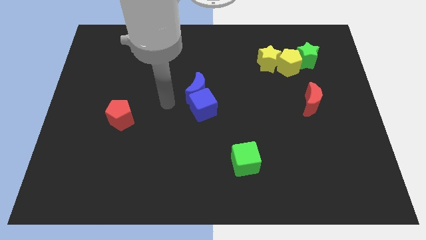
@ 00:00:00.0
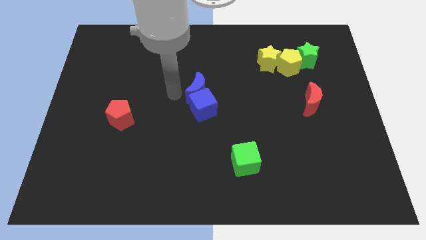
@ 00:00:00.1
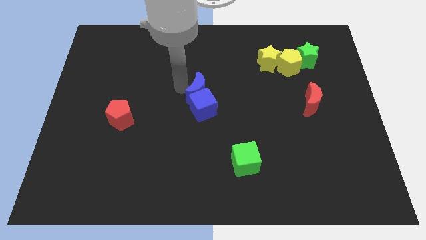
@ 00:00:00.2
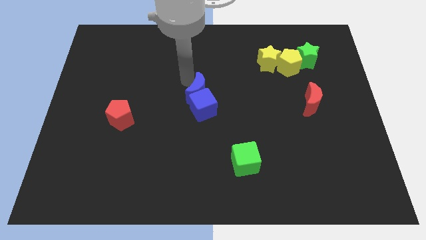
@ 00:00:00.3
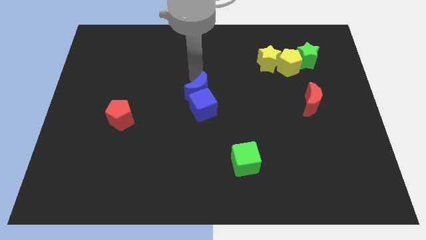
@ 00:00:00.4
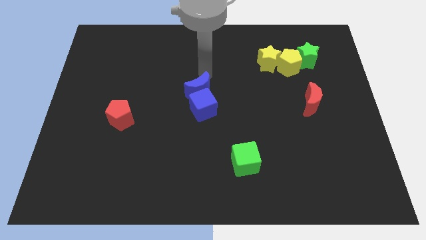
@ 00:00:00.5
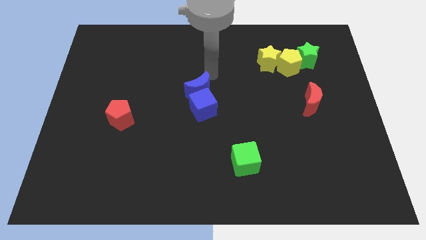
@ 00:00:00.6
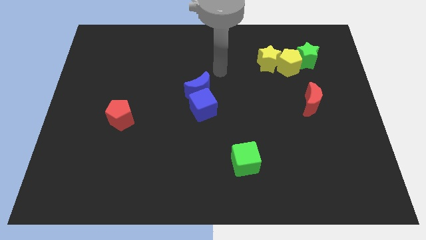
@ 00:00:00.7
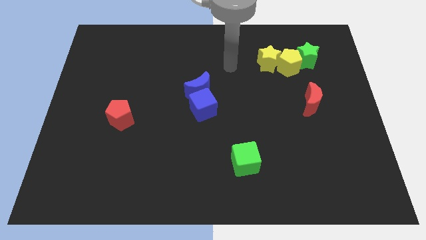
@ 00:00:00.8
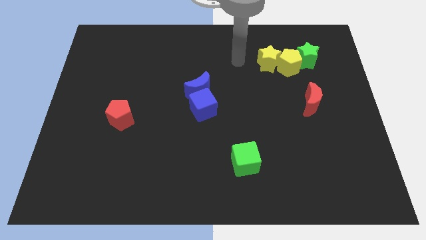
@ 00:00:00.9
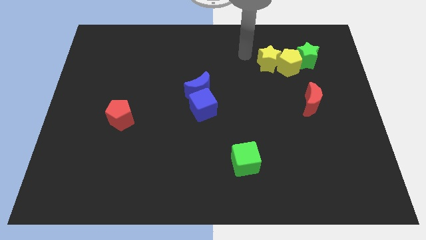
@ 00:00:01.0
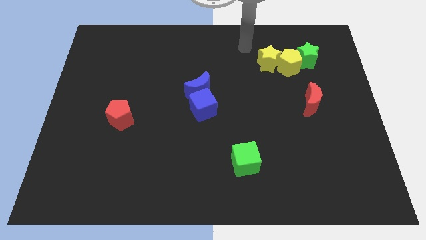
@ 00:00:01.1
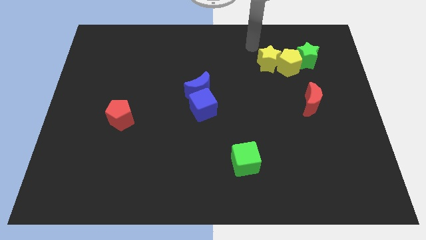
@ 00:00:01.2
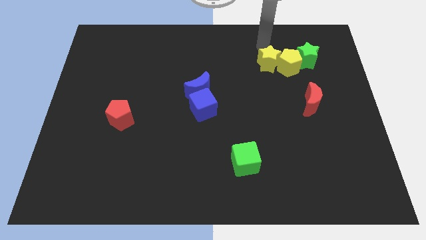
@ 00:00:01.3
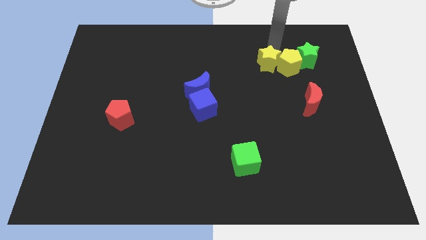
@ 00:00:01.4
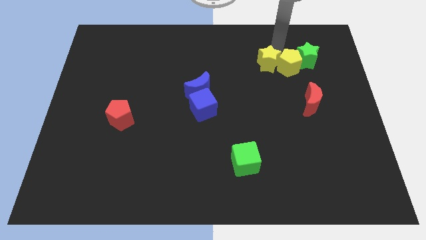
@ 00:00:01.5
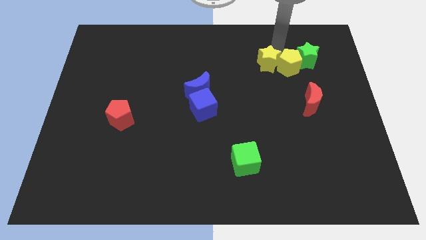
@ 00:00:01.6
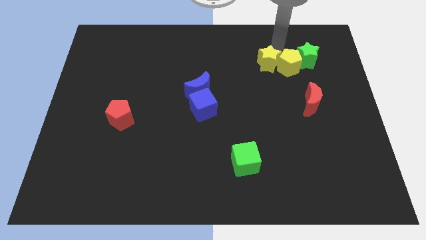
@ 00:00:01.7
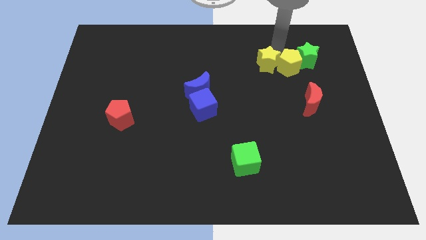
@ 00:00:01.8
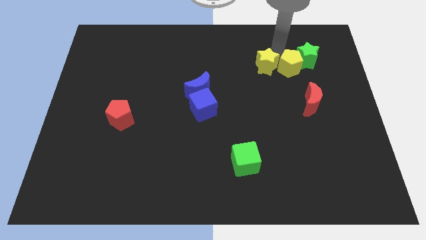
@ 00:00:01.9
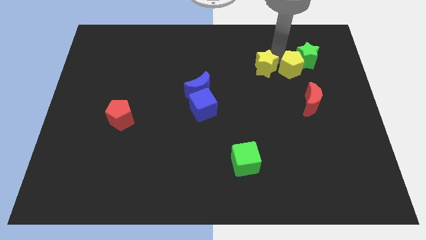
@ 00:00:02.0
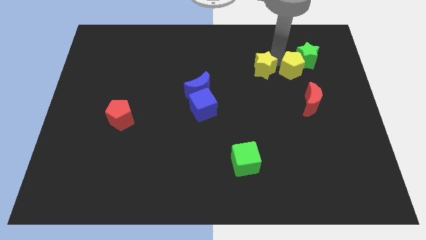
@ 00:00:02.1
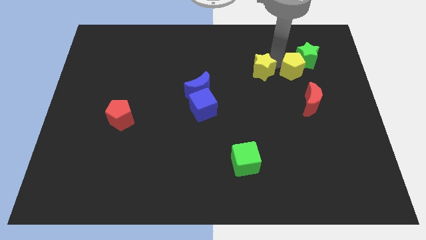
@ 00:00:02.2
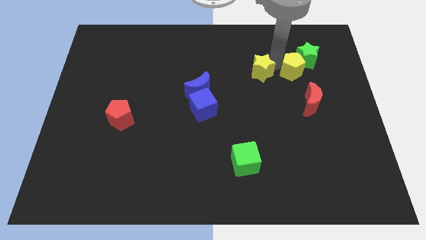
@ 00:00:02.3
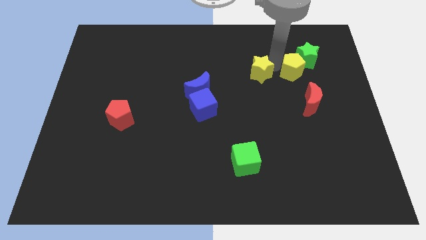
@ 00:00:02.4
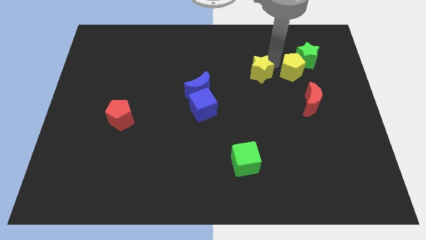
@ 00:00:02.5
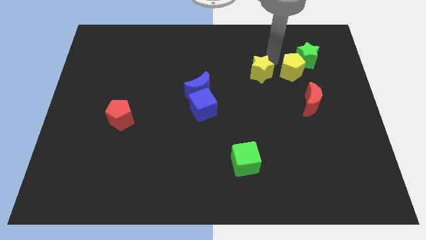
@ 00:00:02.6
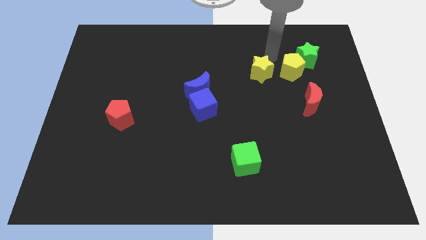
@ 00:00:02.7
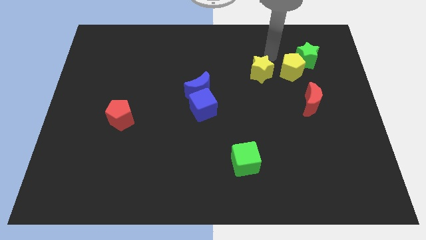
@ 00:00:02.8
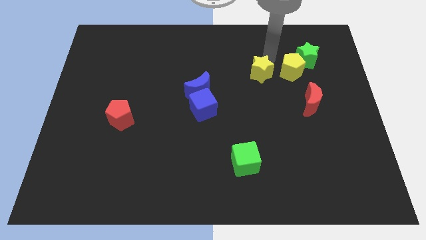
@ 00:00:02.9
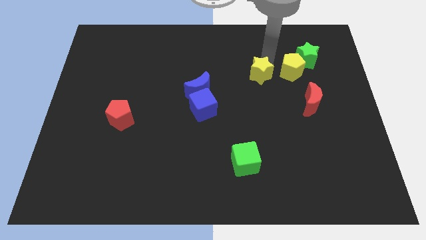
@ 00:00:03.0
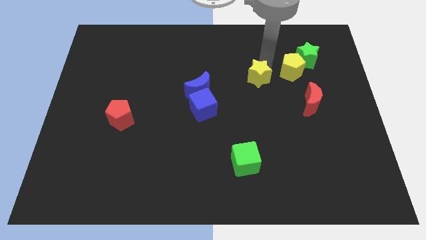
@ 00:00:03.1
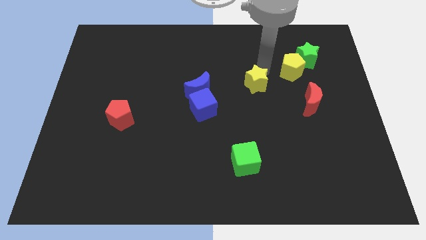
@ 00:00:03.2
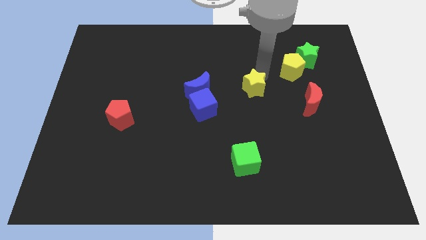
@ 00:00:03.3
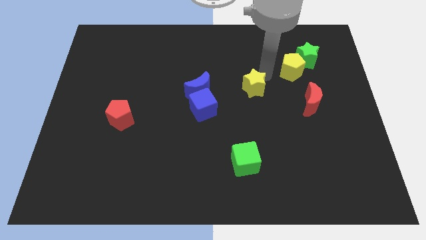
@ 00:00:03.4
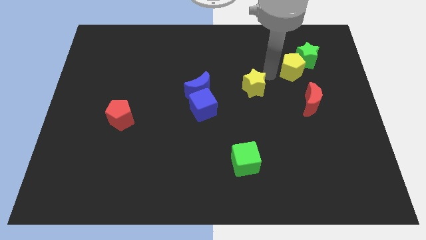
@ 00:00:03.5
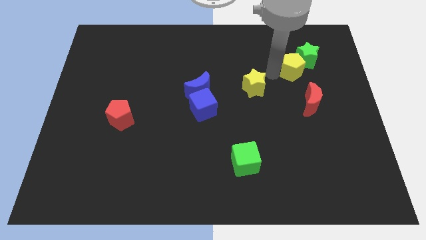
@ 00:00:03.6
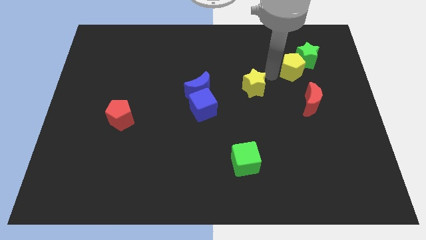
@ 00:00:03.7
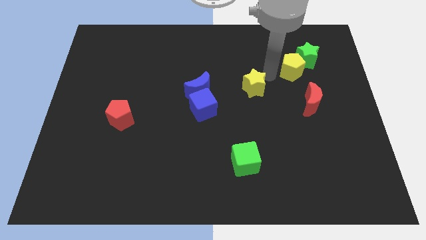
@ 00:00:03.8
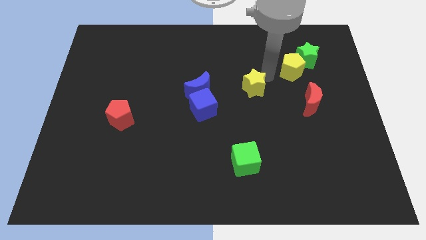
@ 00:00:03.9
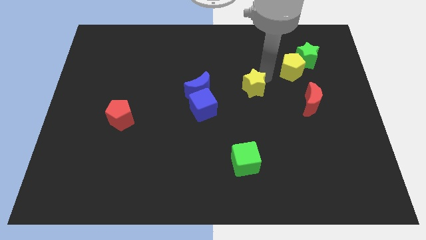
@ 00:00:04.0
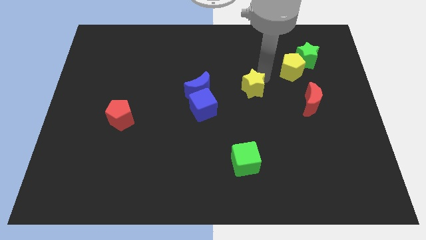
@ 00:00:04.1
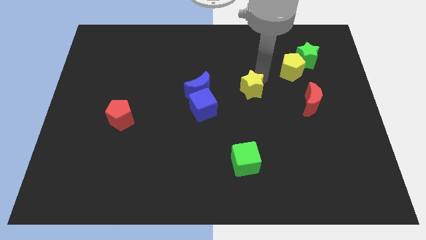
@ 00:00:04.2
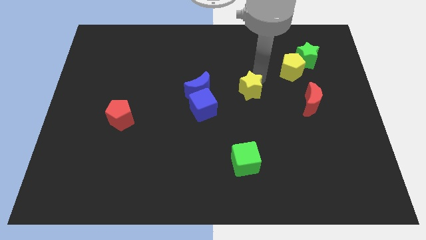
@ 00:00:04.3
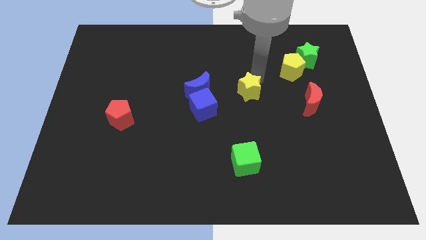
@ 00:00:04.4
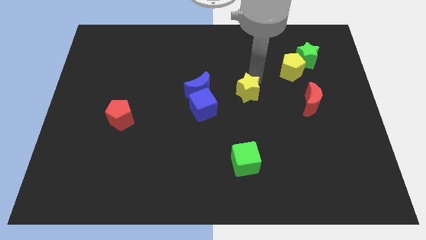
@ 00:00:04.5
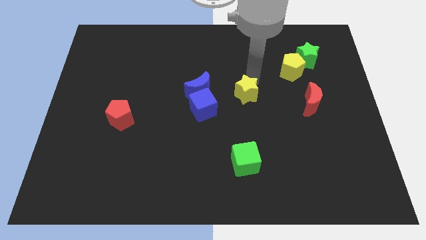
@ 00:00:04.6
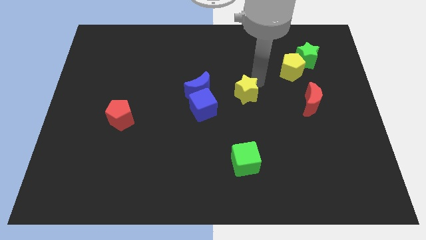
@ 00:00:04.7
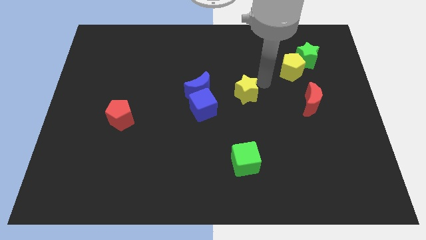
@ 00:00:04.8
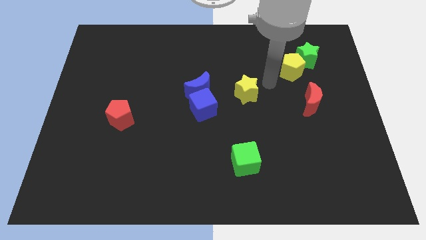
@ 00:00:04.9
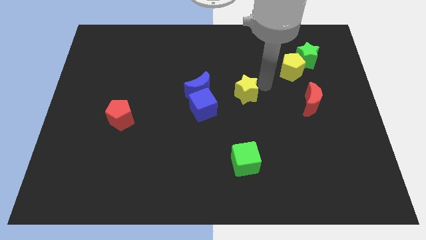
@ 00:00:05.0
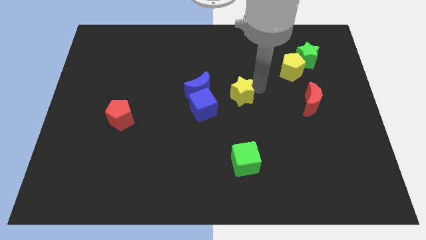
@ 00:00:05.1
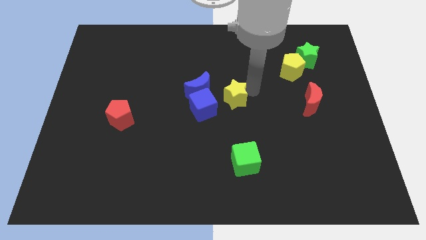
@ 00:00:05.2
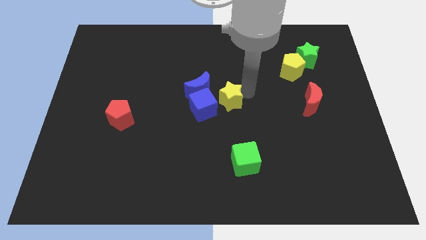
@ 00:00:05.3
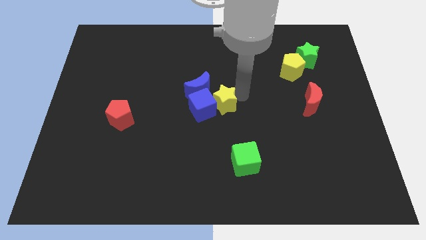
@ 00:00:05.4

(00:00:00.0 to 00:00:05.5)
move the yellow star towards the blue cube

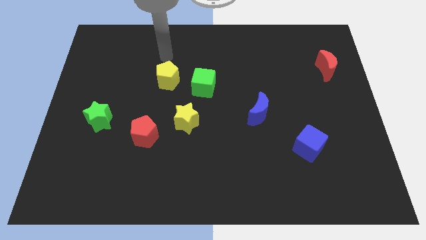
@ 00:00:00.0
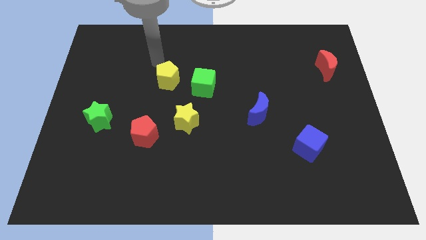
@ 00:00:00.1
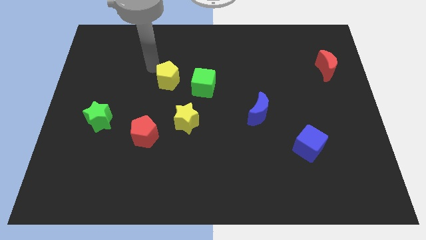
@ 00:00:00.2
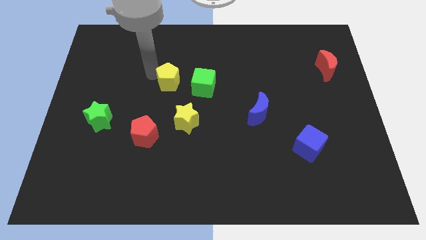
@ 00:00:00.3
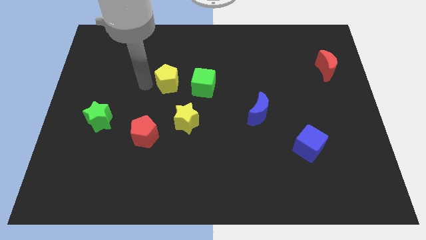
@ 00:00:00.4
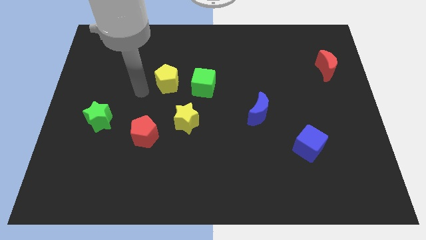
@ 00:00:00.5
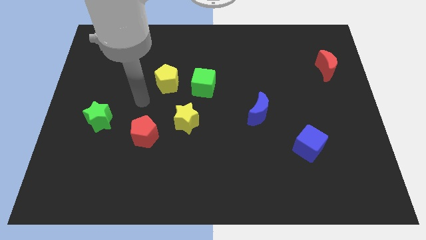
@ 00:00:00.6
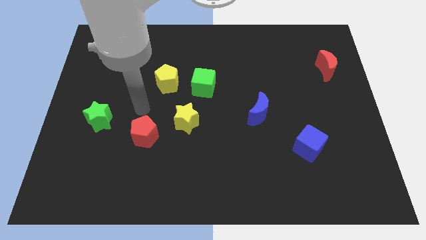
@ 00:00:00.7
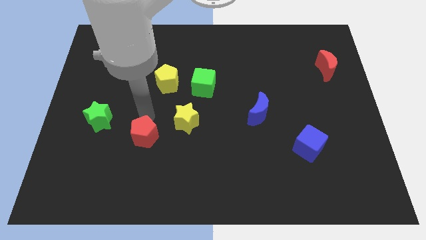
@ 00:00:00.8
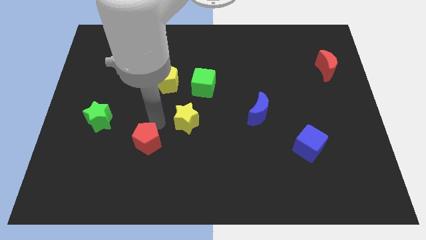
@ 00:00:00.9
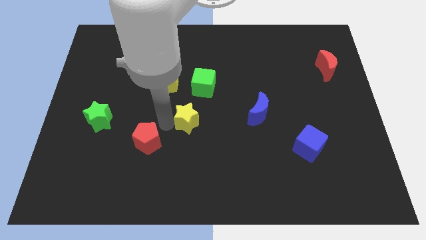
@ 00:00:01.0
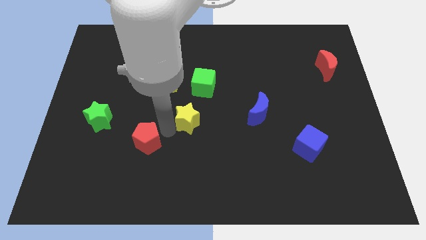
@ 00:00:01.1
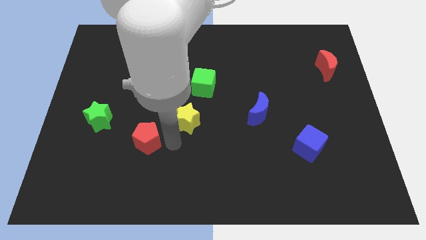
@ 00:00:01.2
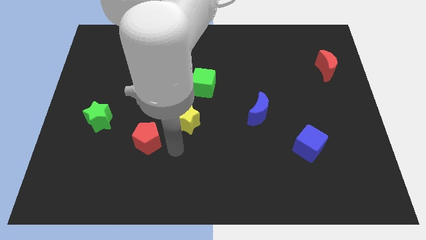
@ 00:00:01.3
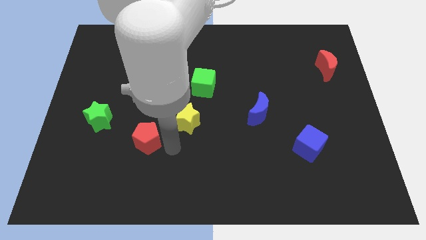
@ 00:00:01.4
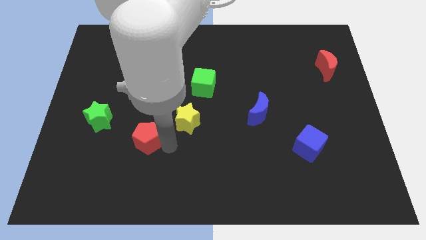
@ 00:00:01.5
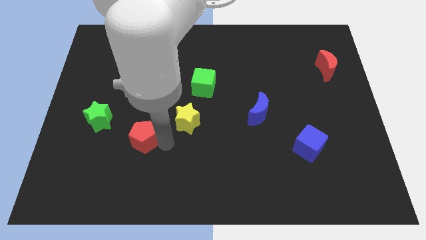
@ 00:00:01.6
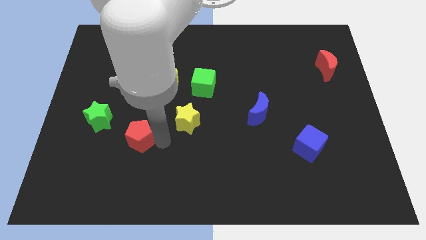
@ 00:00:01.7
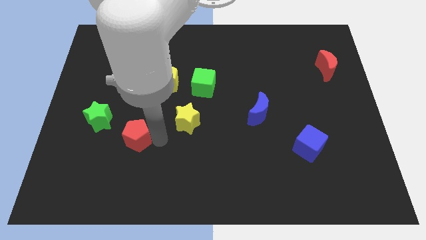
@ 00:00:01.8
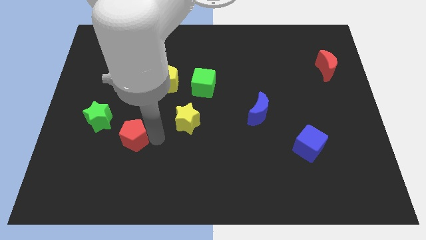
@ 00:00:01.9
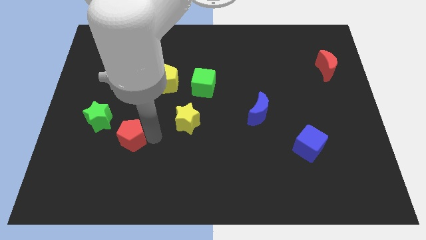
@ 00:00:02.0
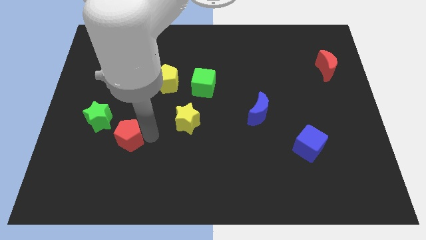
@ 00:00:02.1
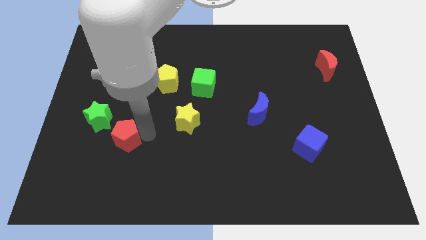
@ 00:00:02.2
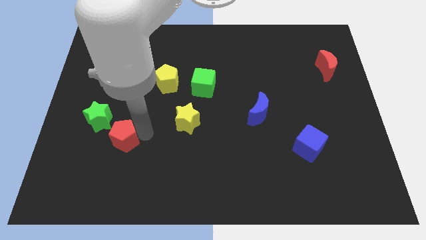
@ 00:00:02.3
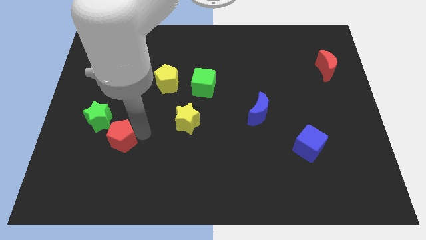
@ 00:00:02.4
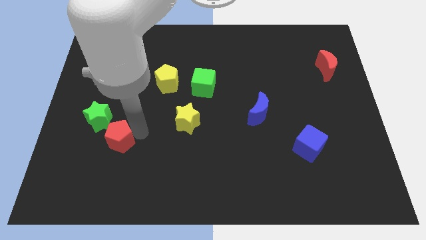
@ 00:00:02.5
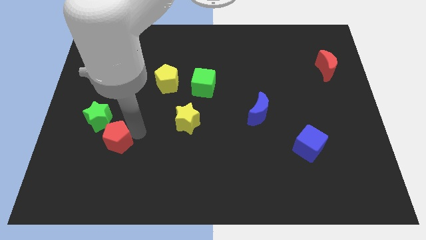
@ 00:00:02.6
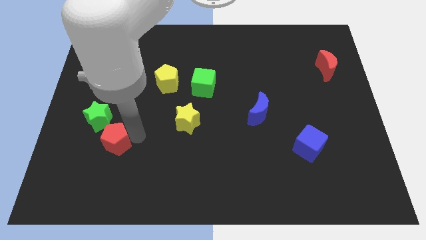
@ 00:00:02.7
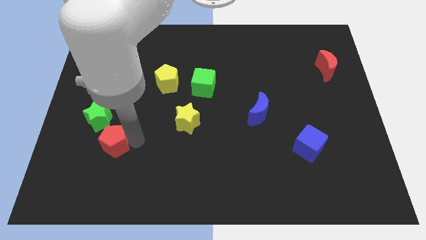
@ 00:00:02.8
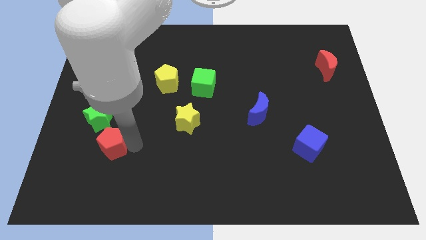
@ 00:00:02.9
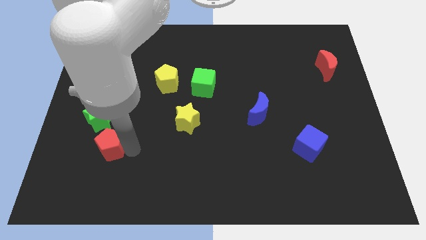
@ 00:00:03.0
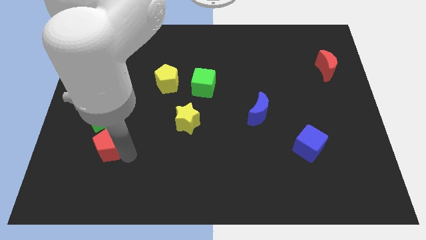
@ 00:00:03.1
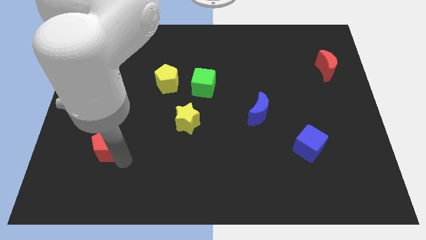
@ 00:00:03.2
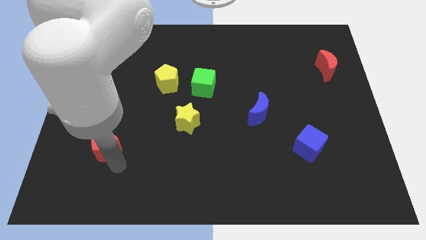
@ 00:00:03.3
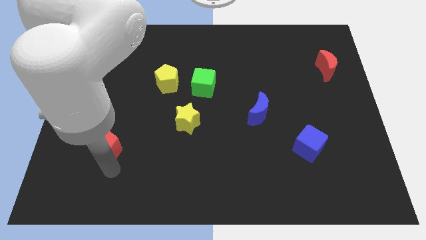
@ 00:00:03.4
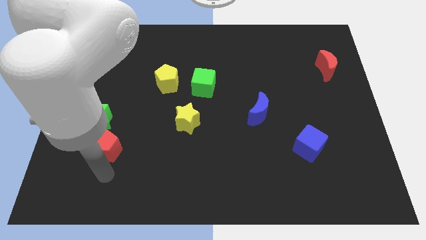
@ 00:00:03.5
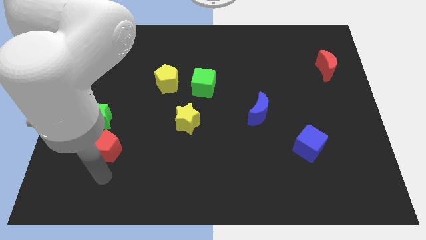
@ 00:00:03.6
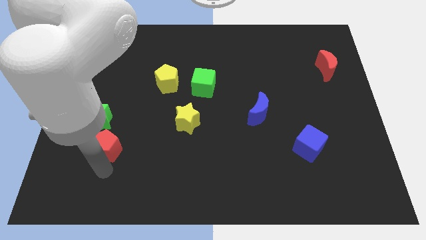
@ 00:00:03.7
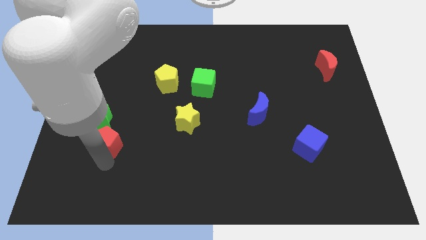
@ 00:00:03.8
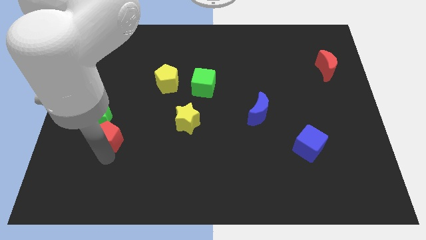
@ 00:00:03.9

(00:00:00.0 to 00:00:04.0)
push the red pentagon next to the green star
